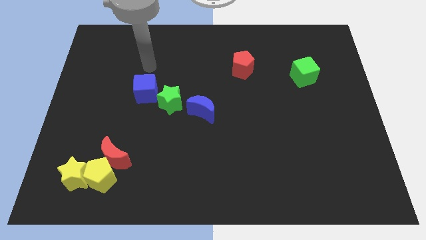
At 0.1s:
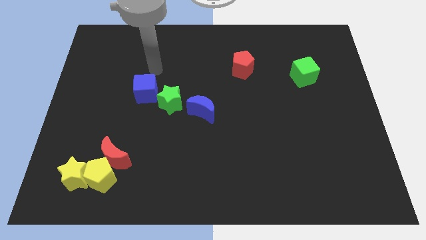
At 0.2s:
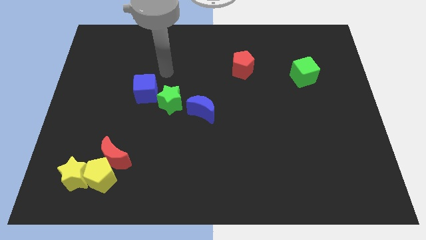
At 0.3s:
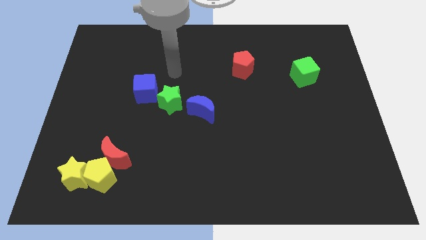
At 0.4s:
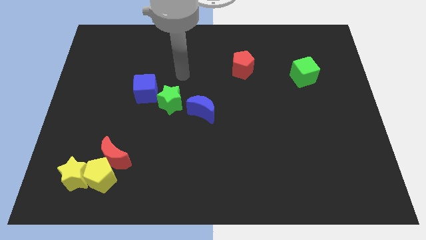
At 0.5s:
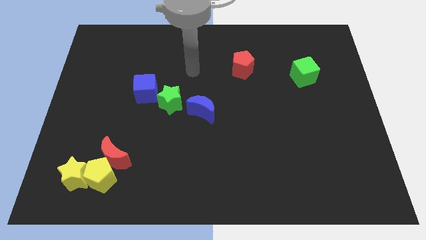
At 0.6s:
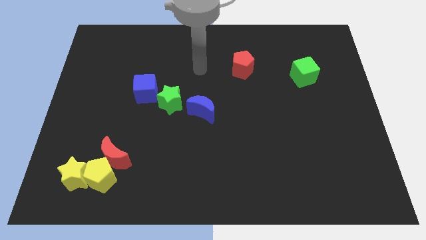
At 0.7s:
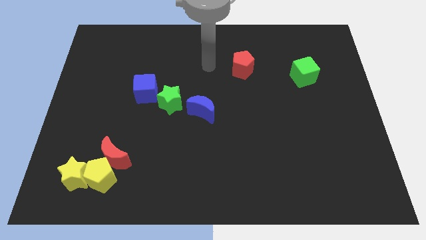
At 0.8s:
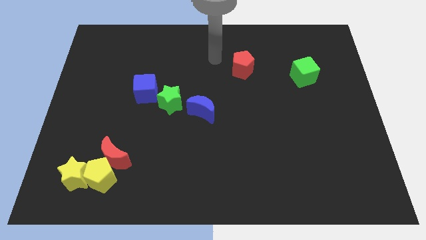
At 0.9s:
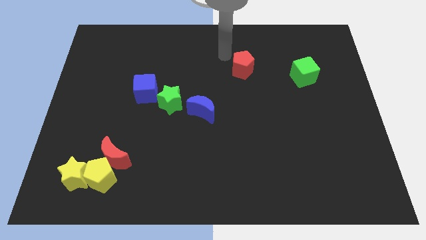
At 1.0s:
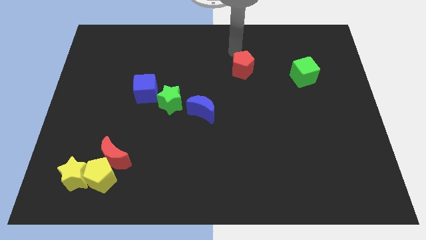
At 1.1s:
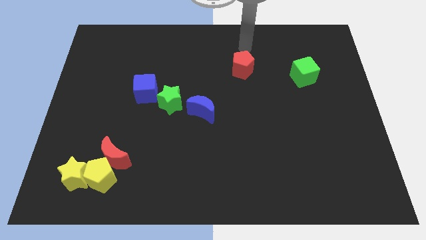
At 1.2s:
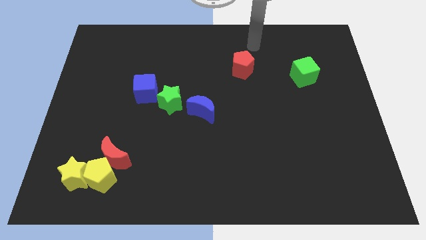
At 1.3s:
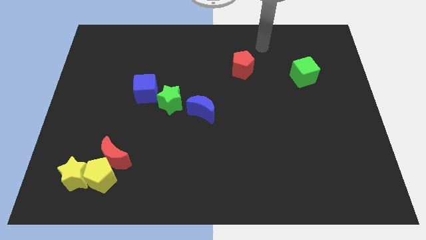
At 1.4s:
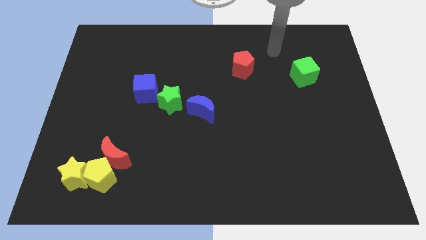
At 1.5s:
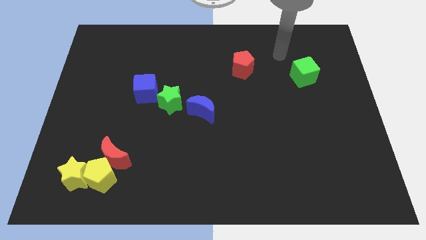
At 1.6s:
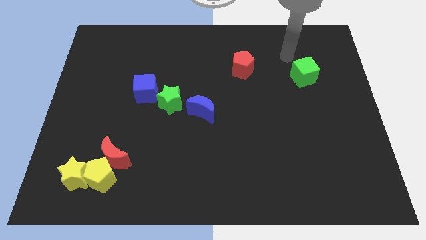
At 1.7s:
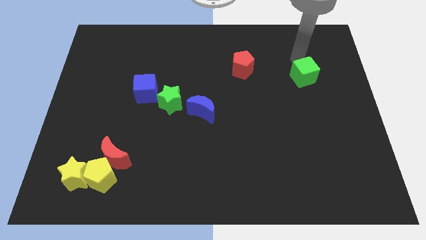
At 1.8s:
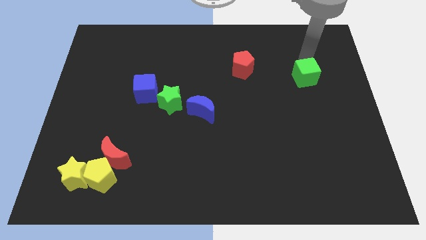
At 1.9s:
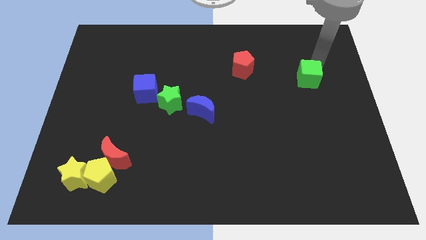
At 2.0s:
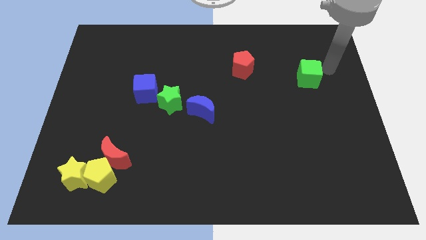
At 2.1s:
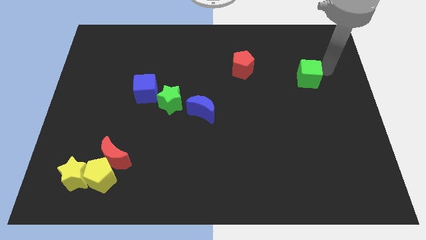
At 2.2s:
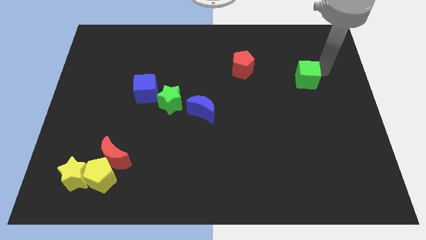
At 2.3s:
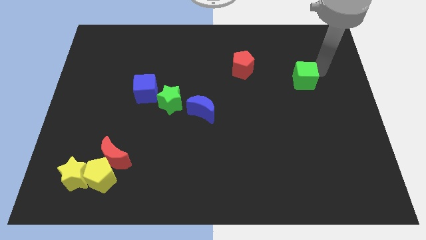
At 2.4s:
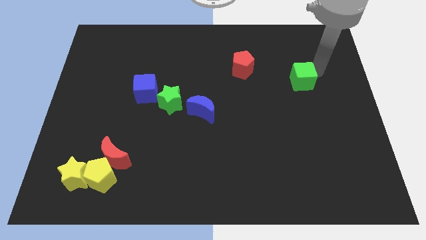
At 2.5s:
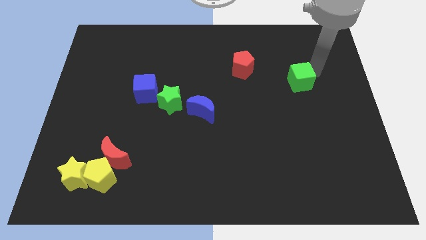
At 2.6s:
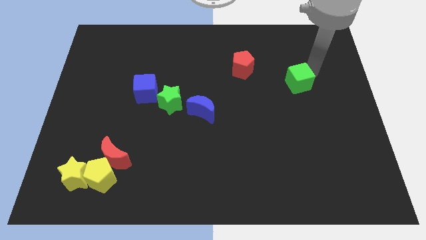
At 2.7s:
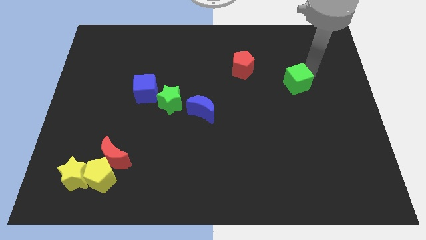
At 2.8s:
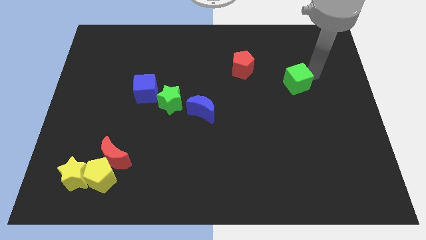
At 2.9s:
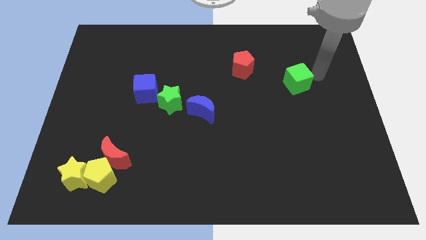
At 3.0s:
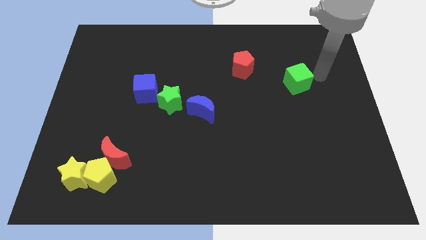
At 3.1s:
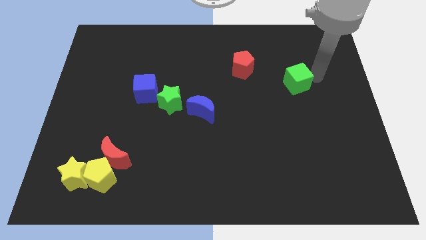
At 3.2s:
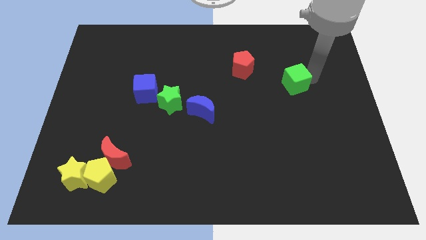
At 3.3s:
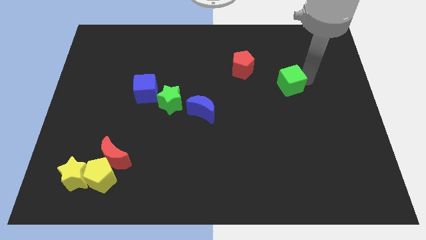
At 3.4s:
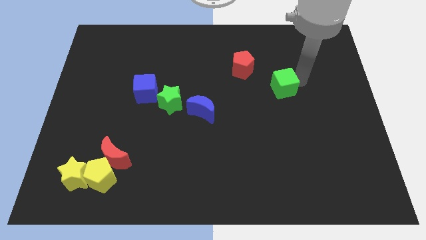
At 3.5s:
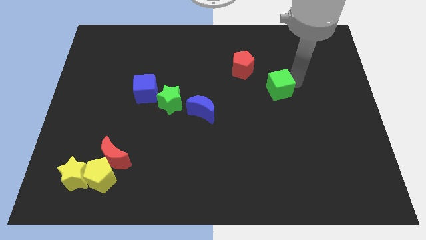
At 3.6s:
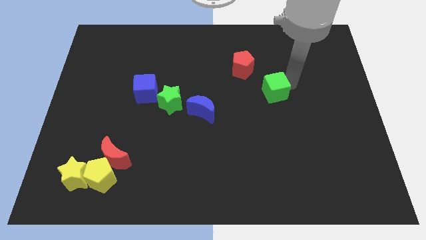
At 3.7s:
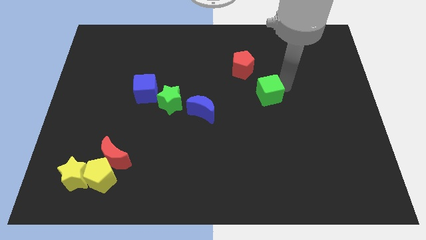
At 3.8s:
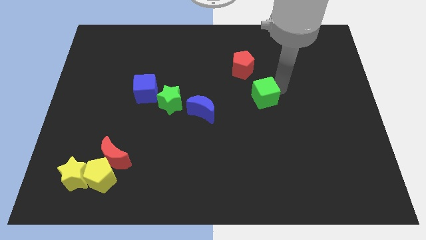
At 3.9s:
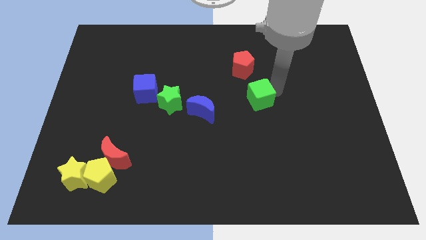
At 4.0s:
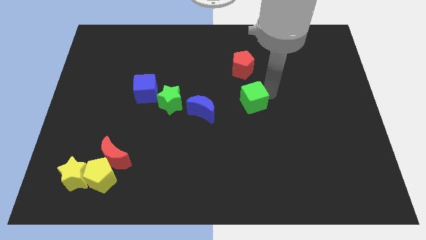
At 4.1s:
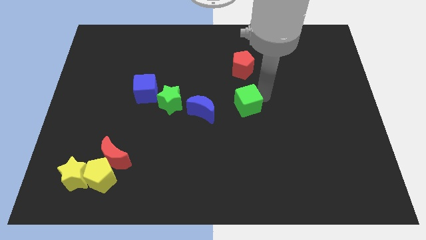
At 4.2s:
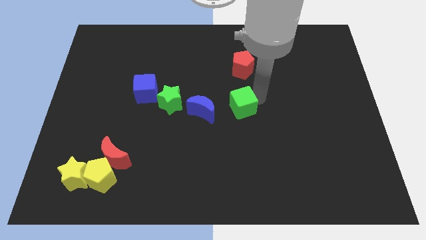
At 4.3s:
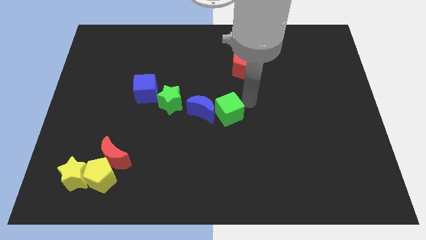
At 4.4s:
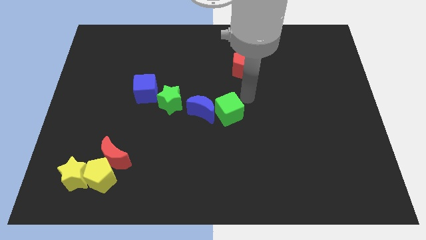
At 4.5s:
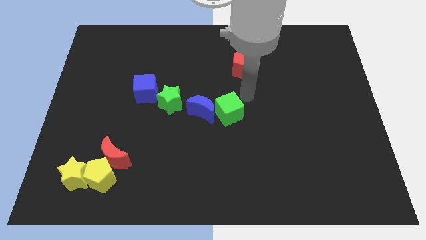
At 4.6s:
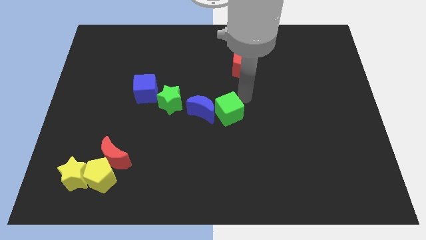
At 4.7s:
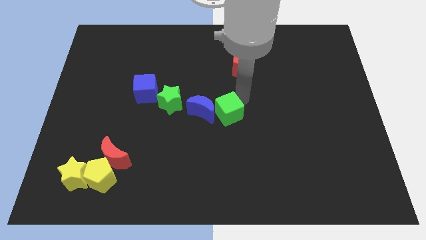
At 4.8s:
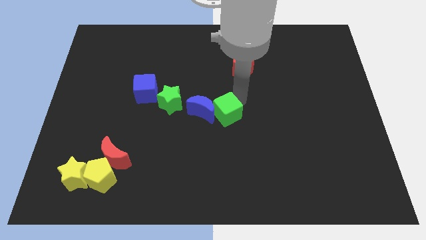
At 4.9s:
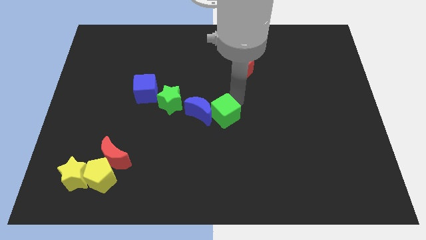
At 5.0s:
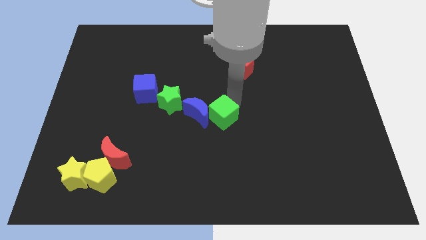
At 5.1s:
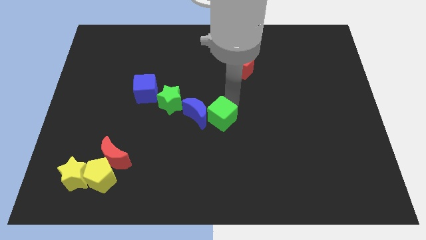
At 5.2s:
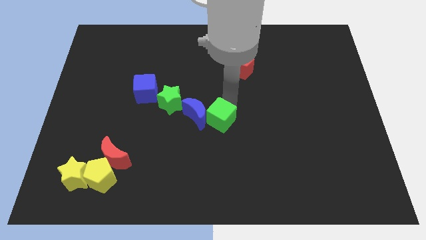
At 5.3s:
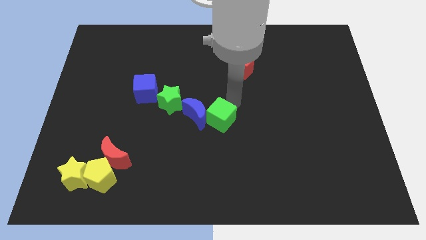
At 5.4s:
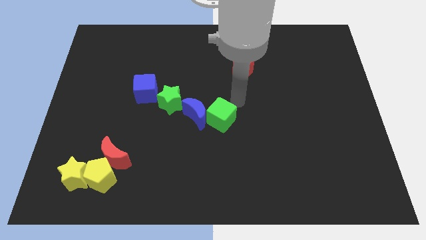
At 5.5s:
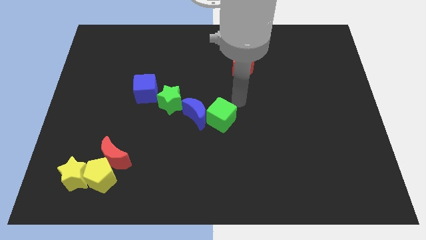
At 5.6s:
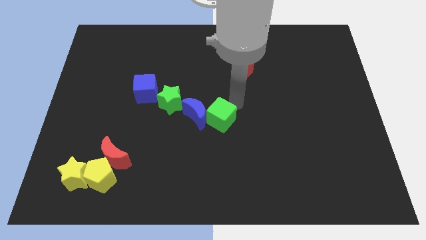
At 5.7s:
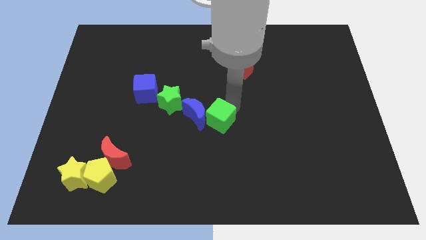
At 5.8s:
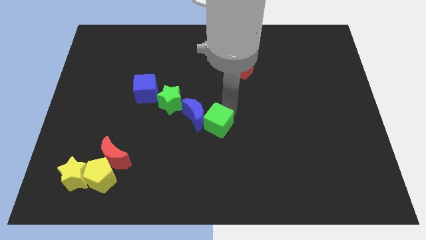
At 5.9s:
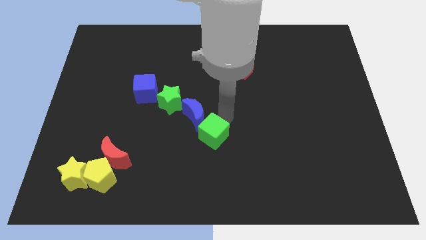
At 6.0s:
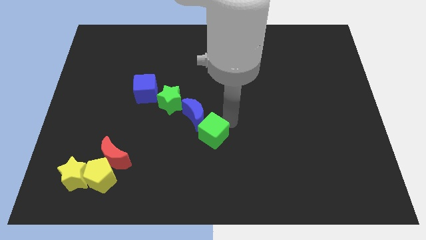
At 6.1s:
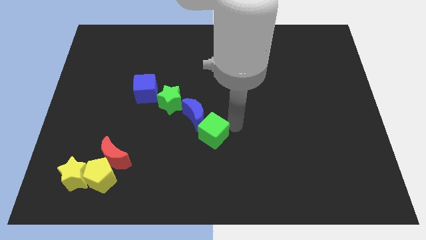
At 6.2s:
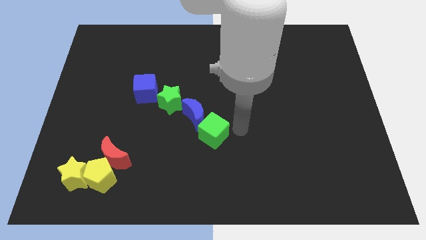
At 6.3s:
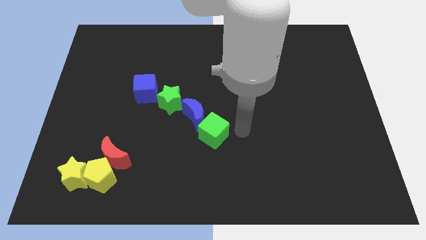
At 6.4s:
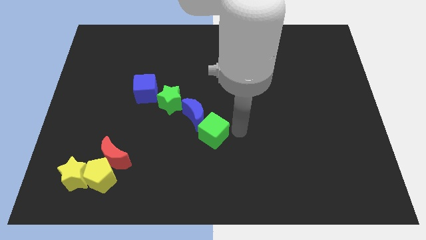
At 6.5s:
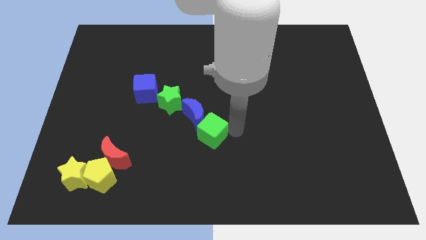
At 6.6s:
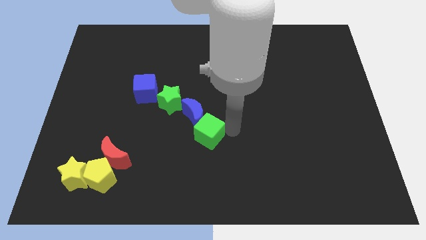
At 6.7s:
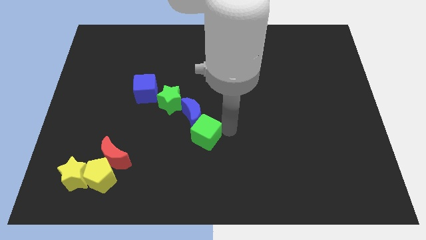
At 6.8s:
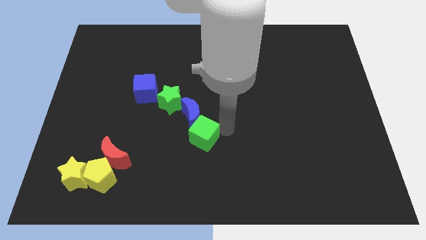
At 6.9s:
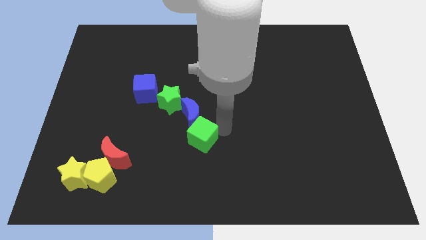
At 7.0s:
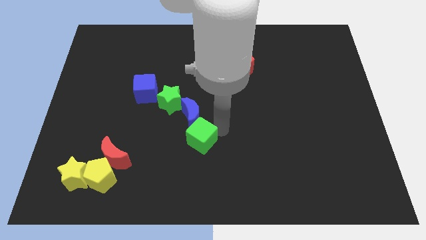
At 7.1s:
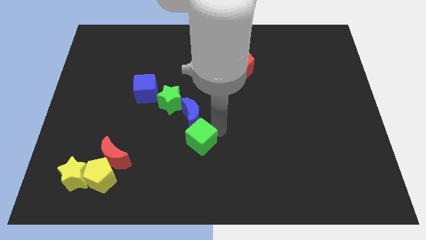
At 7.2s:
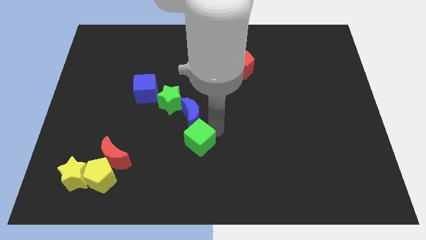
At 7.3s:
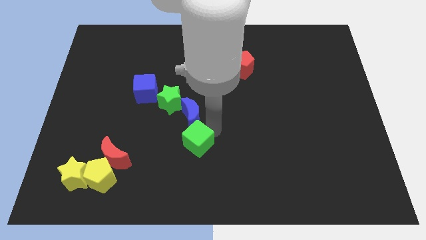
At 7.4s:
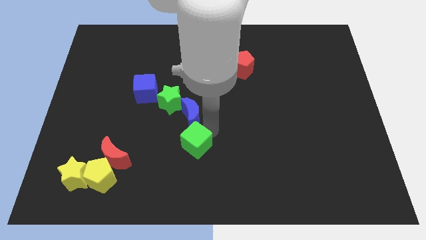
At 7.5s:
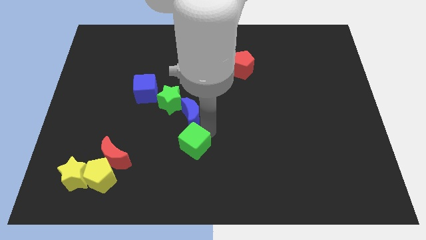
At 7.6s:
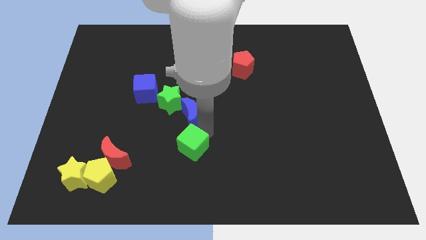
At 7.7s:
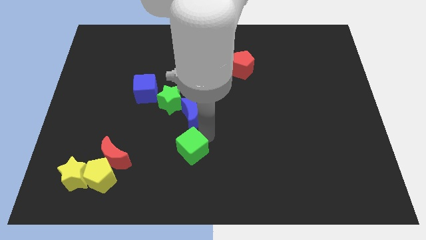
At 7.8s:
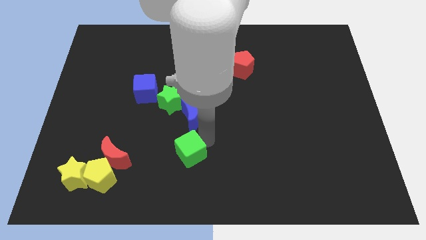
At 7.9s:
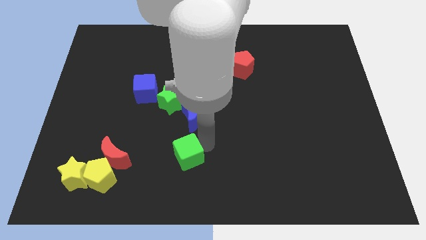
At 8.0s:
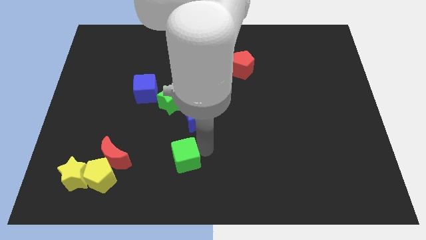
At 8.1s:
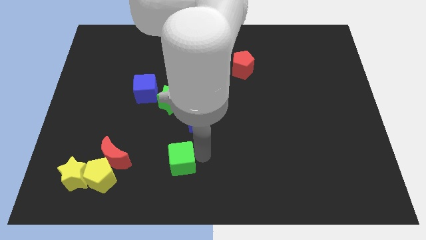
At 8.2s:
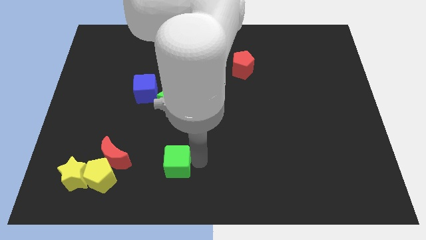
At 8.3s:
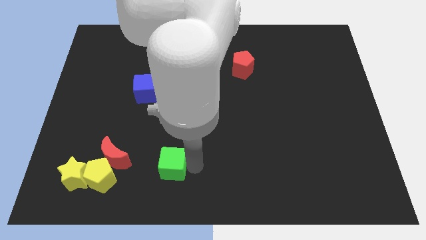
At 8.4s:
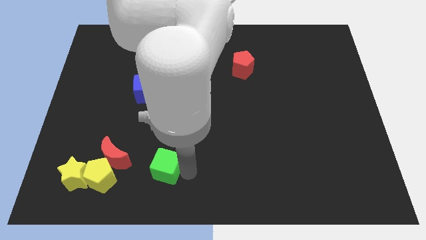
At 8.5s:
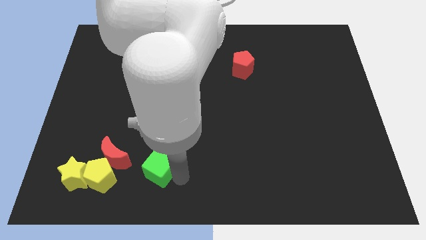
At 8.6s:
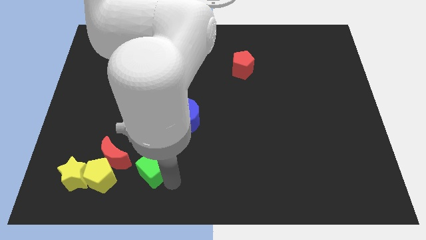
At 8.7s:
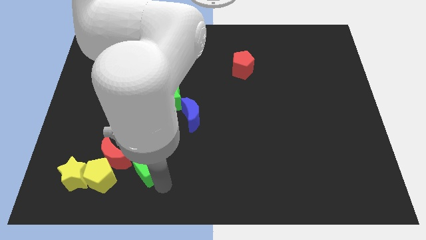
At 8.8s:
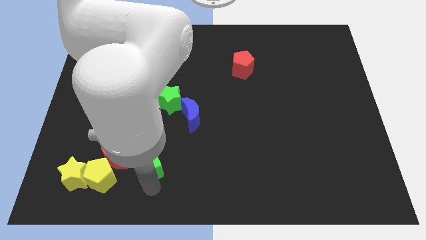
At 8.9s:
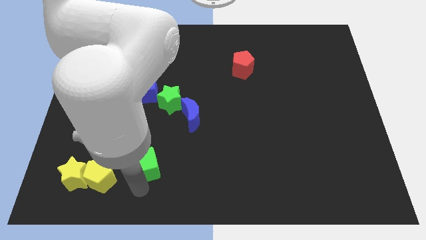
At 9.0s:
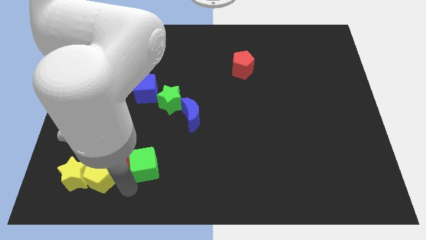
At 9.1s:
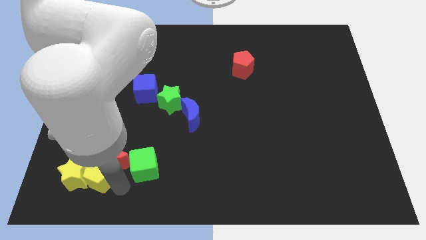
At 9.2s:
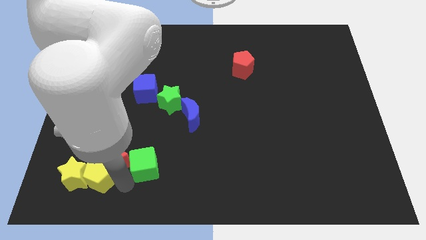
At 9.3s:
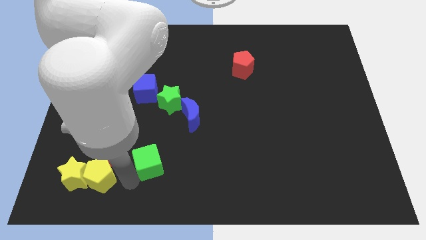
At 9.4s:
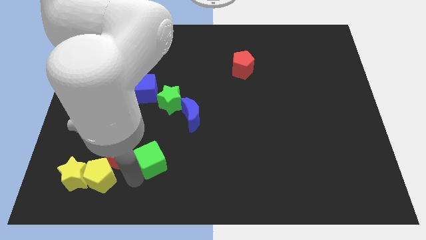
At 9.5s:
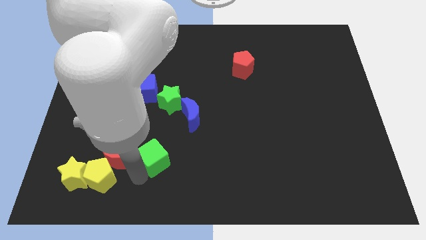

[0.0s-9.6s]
push the green cube to the bottom of the green star
